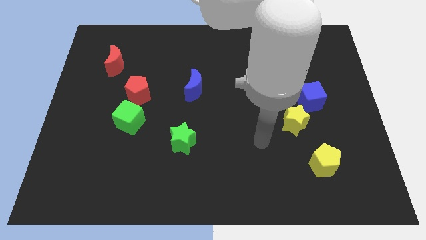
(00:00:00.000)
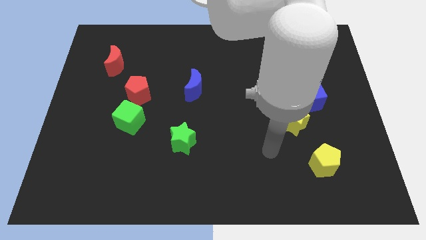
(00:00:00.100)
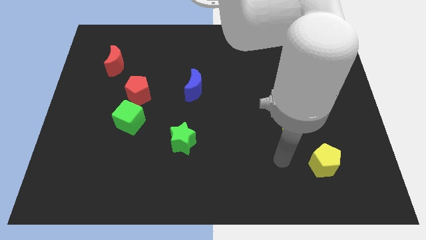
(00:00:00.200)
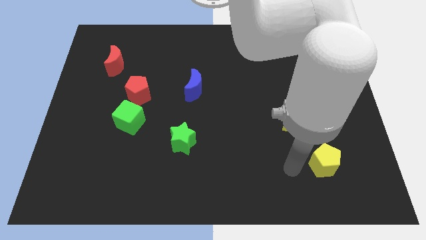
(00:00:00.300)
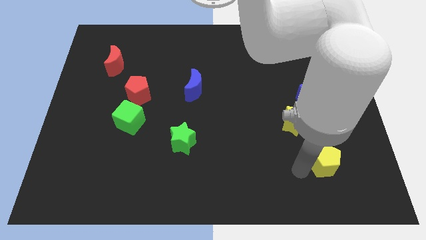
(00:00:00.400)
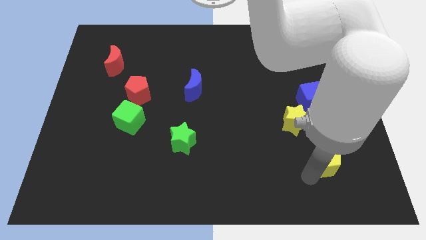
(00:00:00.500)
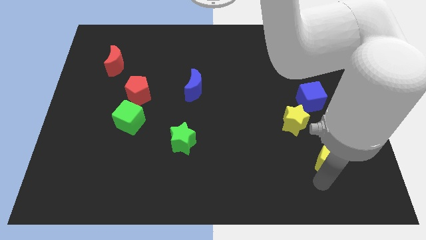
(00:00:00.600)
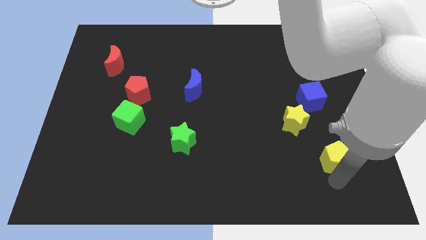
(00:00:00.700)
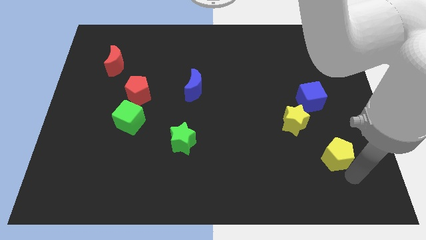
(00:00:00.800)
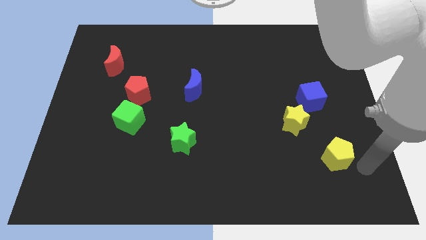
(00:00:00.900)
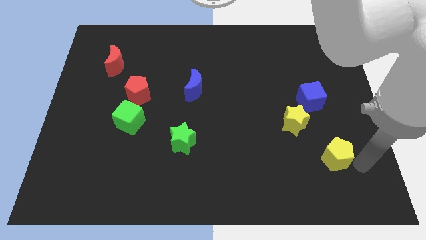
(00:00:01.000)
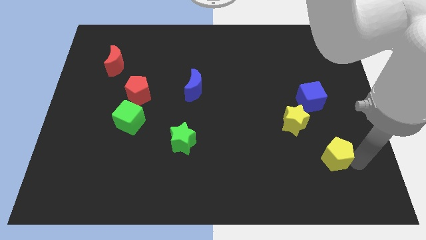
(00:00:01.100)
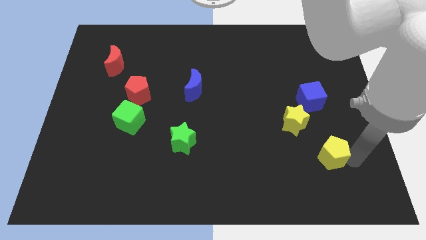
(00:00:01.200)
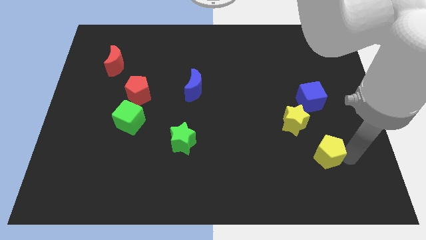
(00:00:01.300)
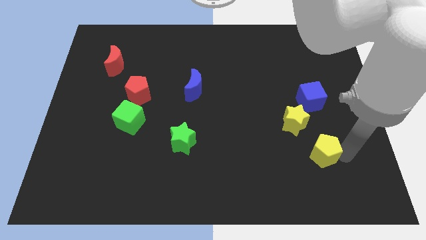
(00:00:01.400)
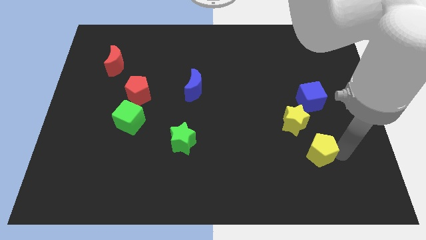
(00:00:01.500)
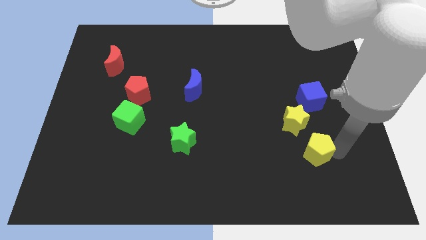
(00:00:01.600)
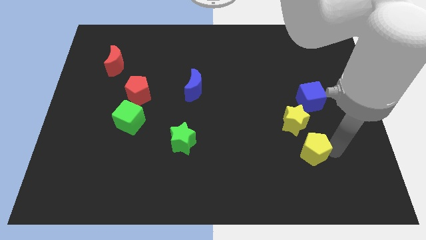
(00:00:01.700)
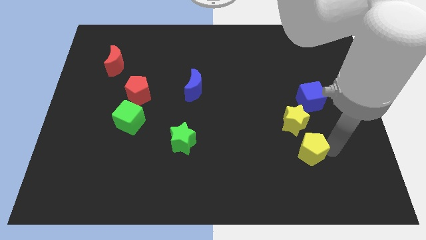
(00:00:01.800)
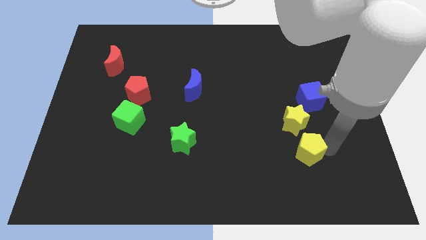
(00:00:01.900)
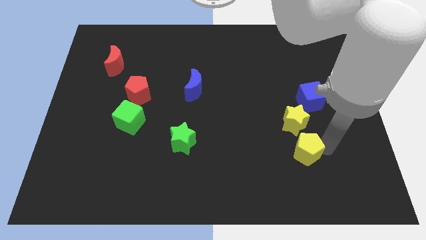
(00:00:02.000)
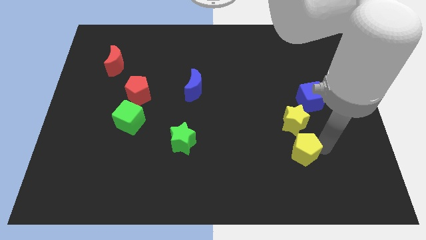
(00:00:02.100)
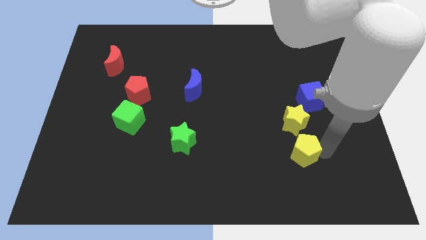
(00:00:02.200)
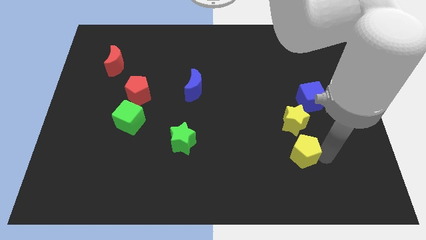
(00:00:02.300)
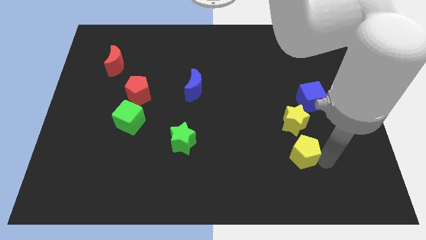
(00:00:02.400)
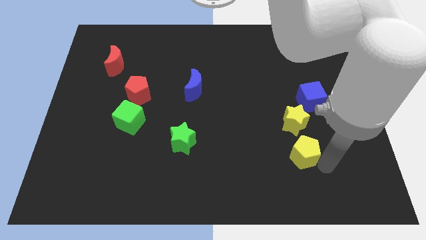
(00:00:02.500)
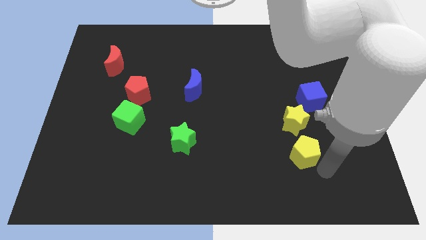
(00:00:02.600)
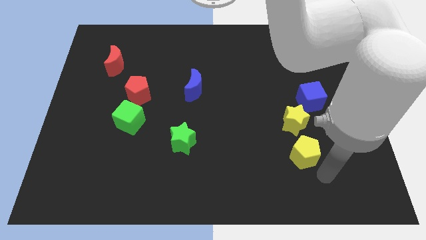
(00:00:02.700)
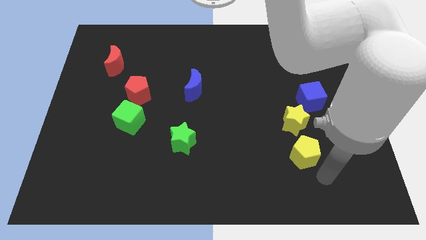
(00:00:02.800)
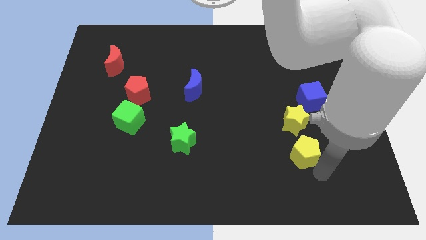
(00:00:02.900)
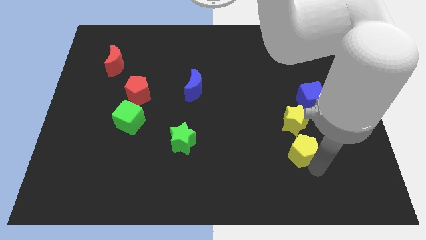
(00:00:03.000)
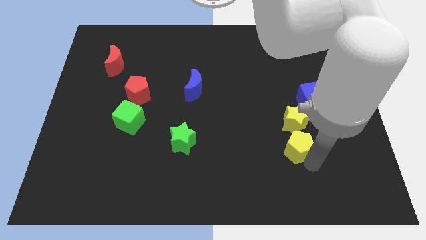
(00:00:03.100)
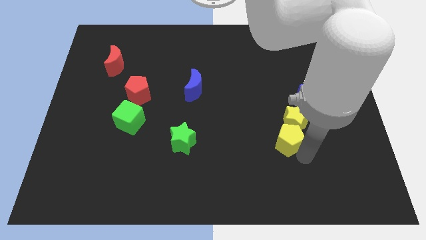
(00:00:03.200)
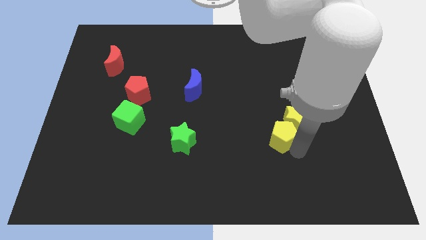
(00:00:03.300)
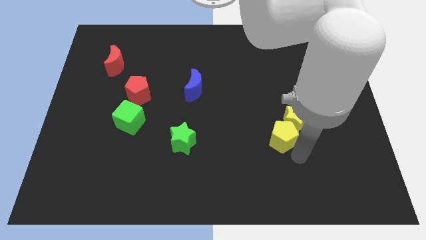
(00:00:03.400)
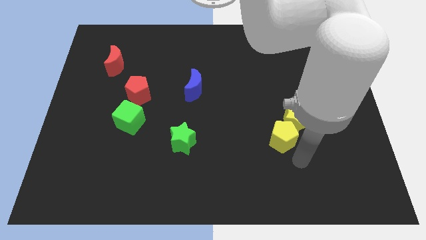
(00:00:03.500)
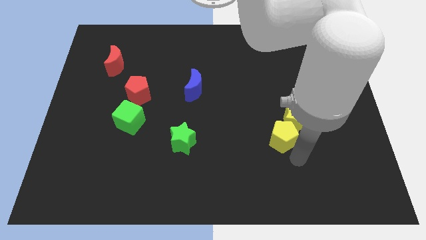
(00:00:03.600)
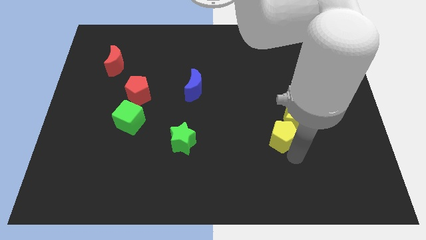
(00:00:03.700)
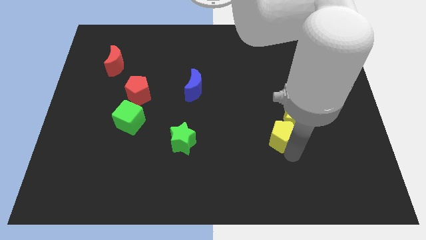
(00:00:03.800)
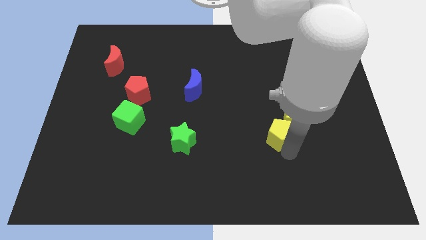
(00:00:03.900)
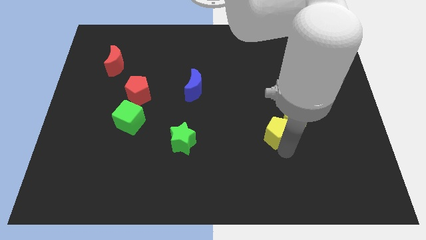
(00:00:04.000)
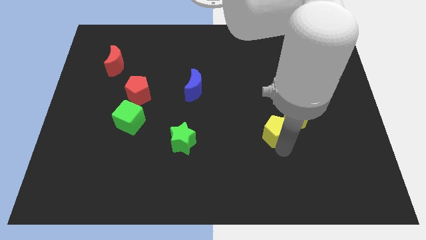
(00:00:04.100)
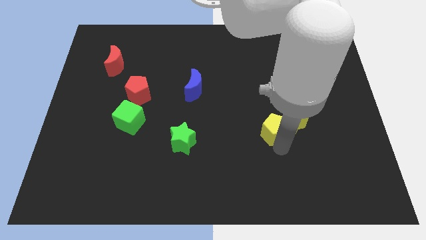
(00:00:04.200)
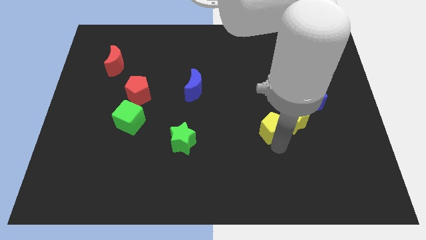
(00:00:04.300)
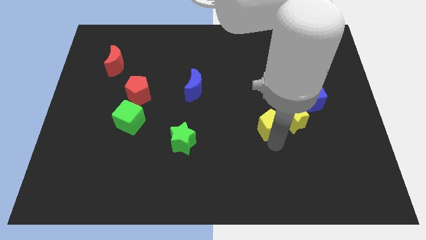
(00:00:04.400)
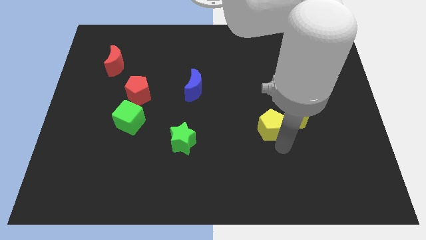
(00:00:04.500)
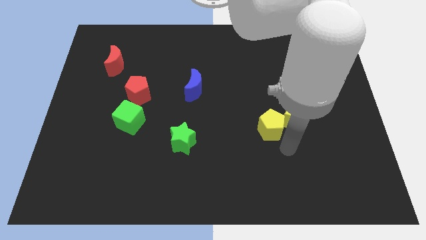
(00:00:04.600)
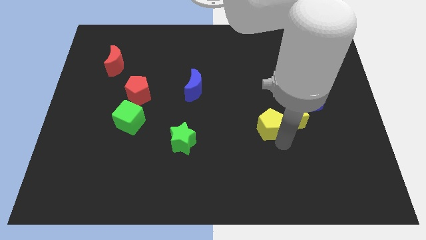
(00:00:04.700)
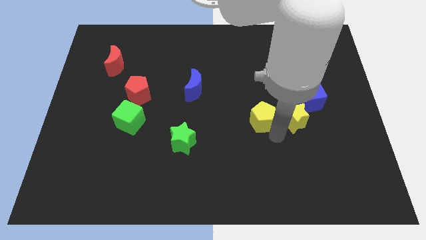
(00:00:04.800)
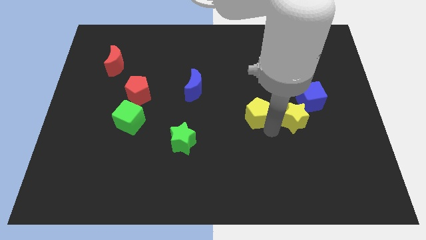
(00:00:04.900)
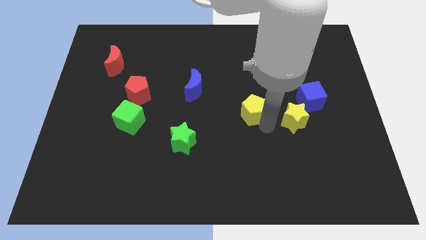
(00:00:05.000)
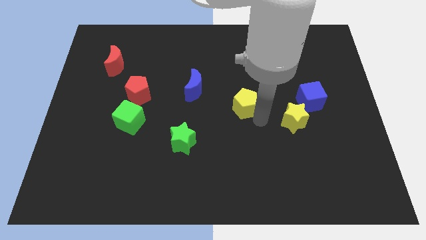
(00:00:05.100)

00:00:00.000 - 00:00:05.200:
move the yellow pentagon up and to the left diagonally

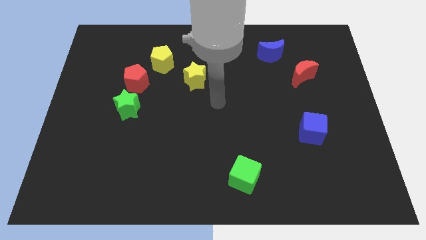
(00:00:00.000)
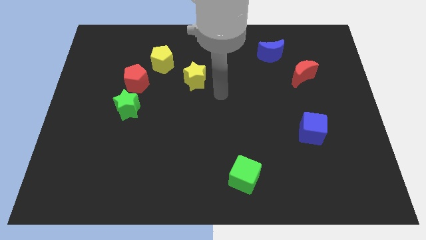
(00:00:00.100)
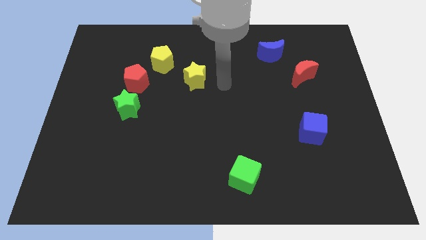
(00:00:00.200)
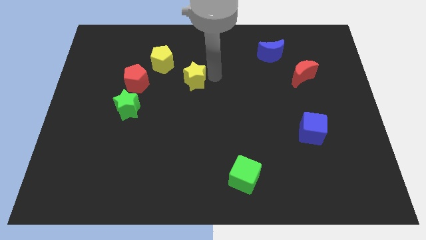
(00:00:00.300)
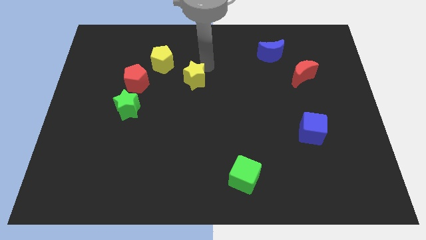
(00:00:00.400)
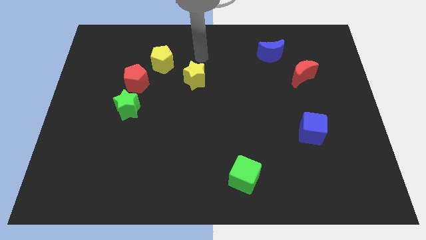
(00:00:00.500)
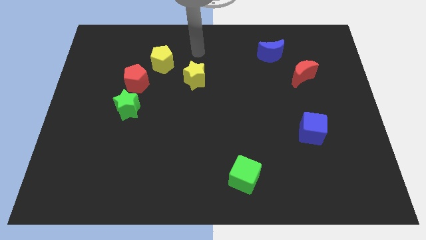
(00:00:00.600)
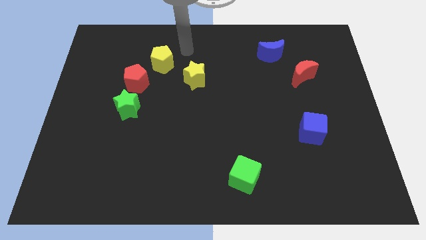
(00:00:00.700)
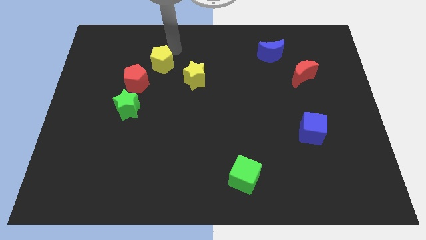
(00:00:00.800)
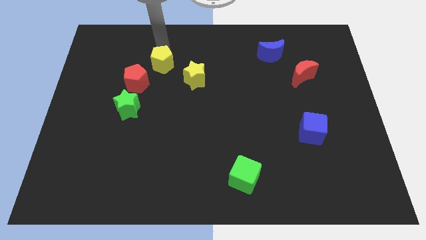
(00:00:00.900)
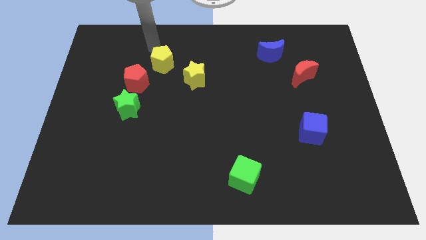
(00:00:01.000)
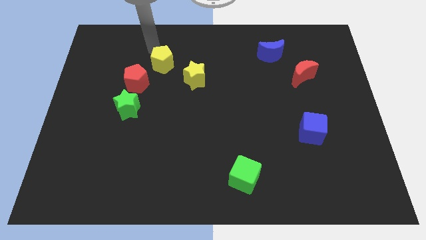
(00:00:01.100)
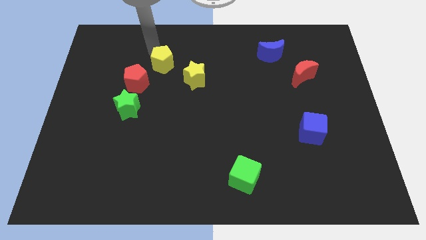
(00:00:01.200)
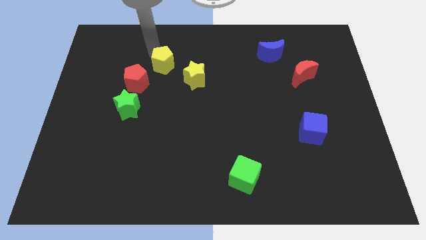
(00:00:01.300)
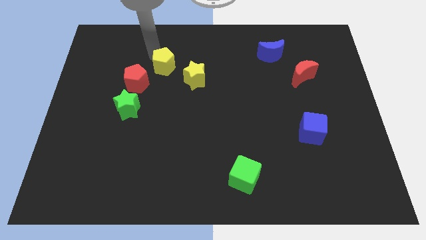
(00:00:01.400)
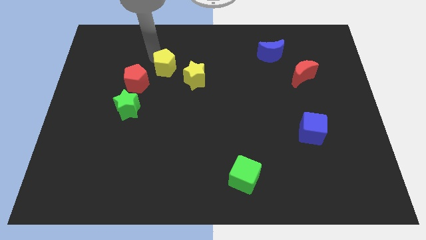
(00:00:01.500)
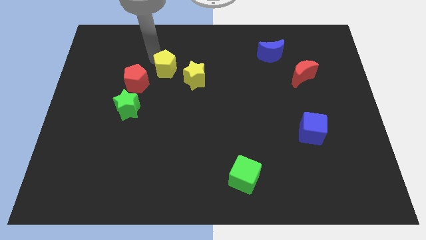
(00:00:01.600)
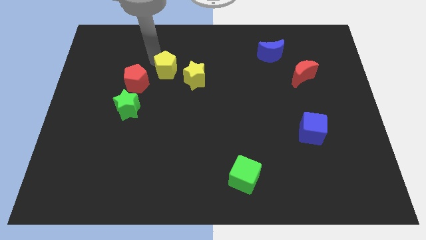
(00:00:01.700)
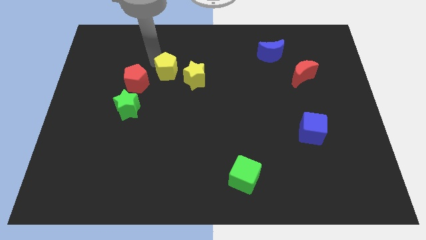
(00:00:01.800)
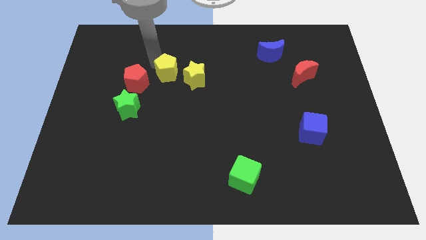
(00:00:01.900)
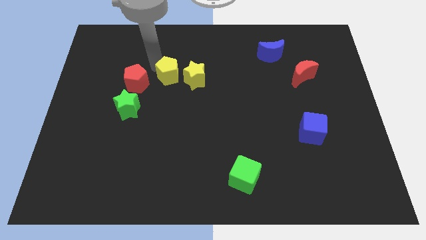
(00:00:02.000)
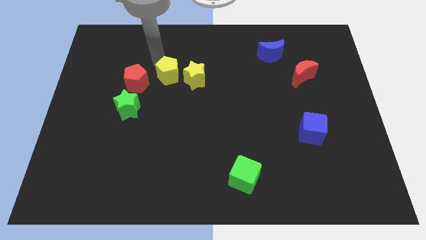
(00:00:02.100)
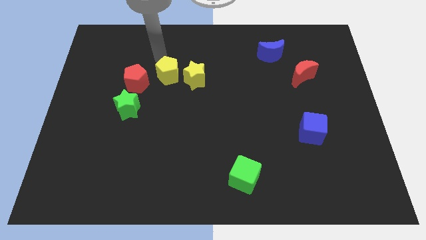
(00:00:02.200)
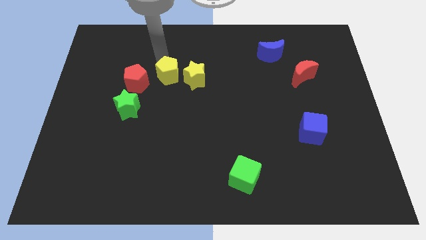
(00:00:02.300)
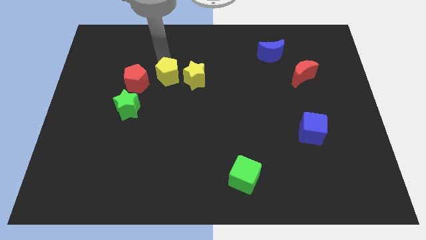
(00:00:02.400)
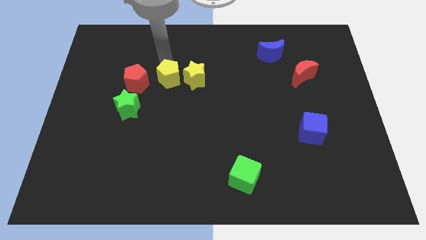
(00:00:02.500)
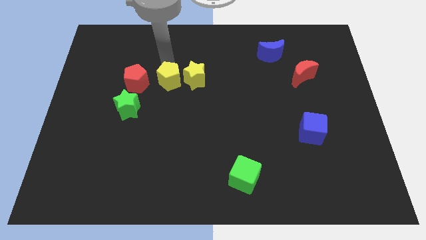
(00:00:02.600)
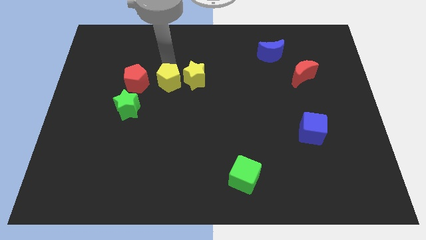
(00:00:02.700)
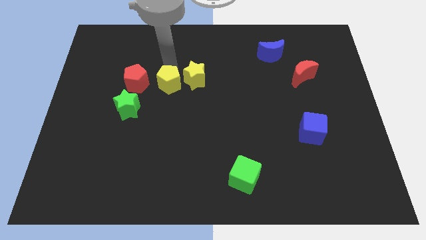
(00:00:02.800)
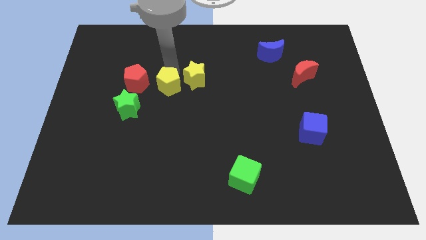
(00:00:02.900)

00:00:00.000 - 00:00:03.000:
move the yellow pentagon a little diagonally downwards and to the right
